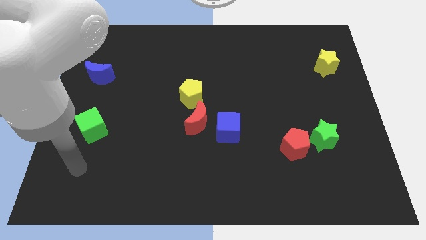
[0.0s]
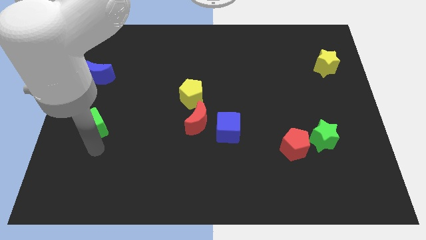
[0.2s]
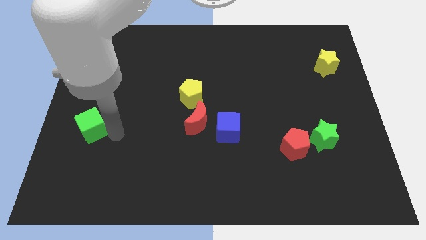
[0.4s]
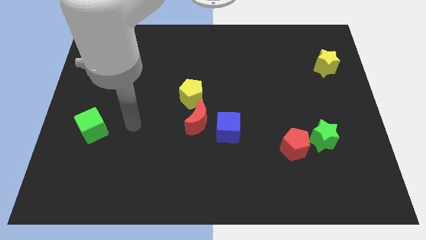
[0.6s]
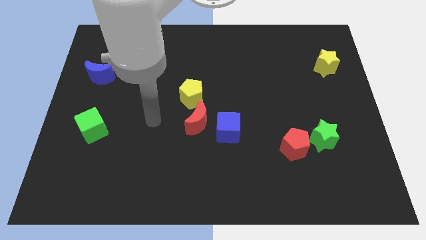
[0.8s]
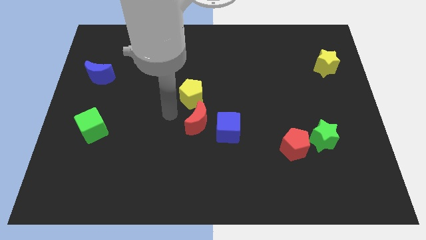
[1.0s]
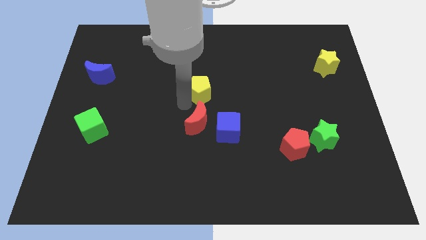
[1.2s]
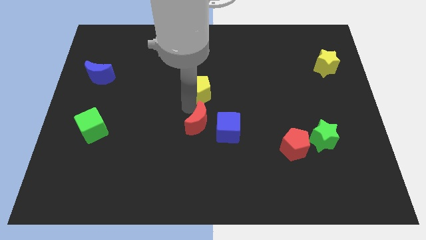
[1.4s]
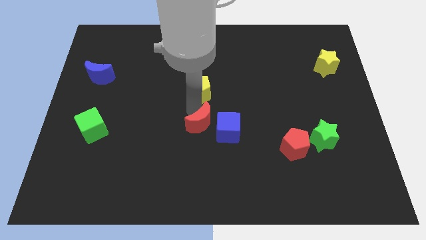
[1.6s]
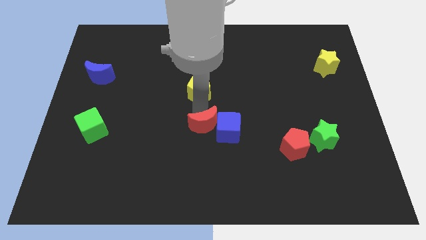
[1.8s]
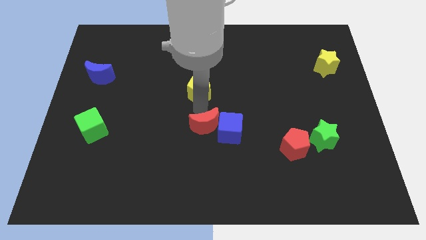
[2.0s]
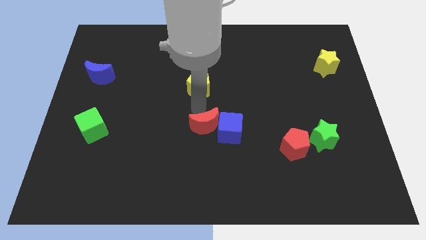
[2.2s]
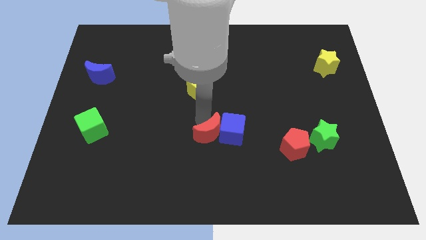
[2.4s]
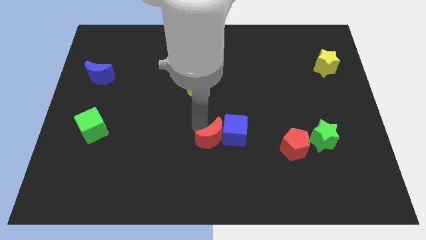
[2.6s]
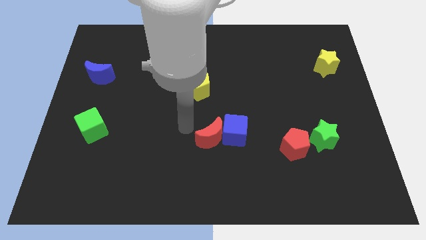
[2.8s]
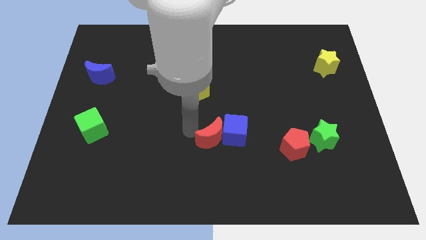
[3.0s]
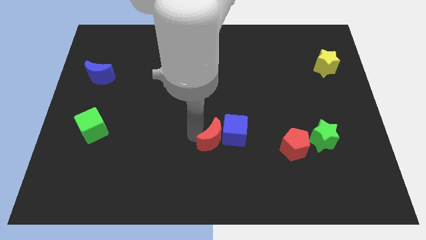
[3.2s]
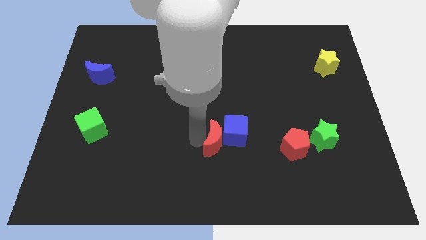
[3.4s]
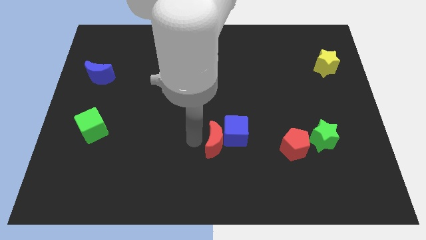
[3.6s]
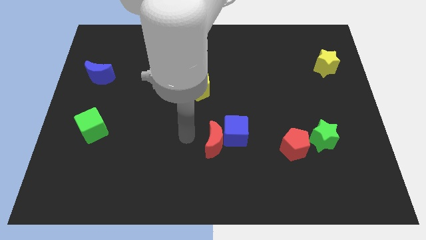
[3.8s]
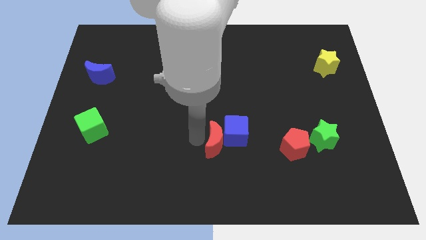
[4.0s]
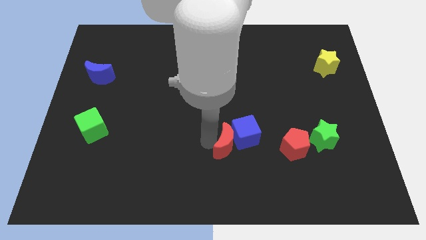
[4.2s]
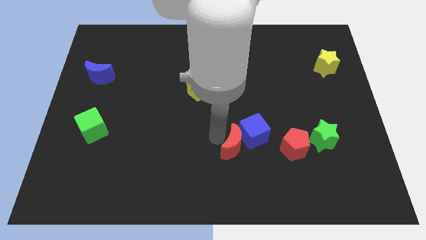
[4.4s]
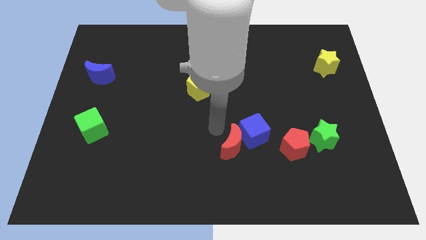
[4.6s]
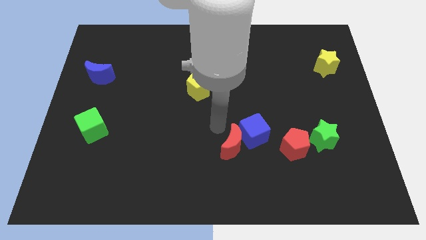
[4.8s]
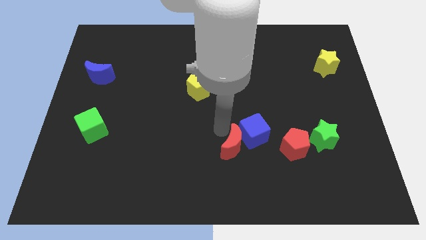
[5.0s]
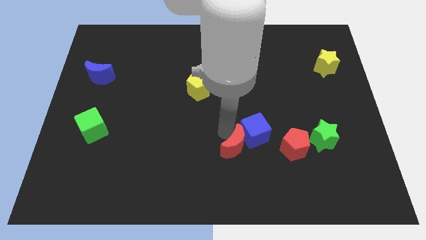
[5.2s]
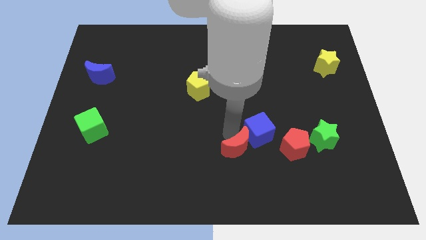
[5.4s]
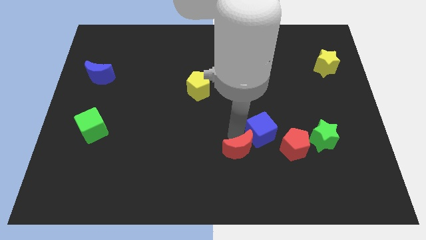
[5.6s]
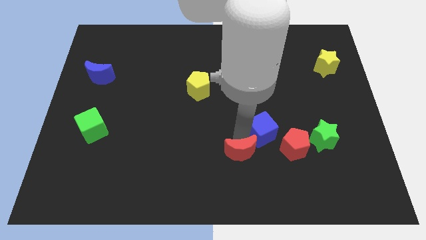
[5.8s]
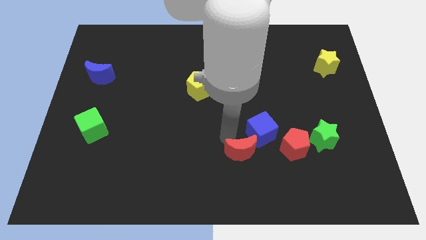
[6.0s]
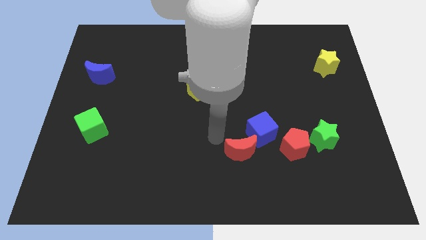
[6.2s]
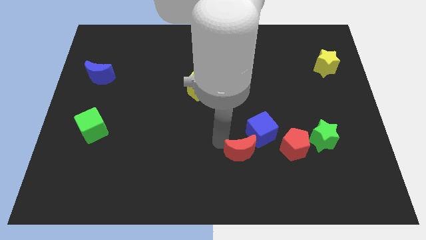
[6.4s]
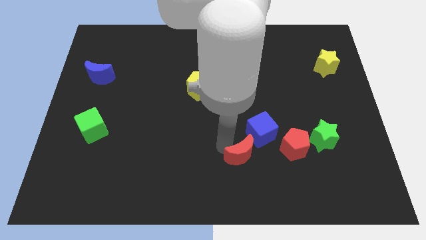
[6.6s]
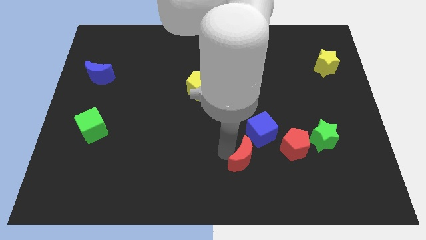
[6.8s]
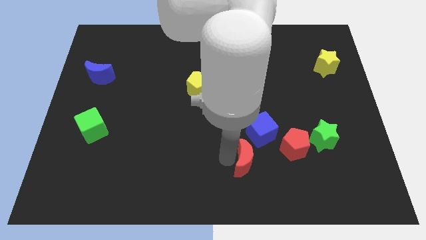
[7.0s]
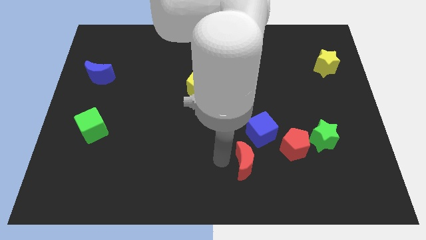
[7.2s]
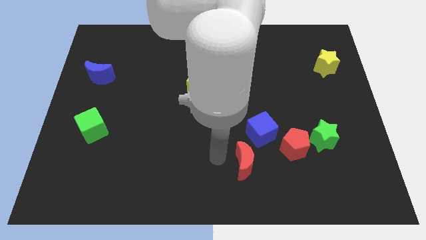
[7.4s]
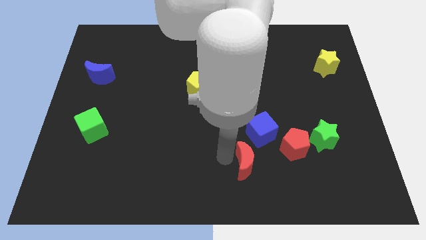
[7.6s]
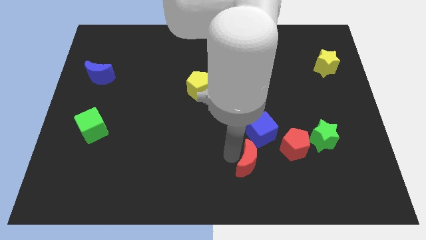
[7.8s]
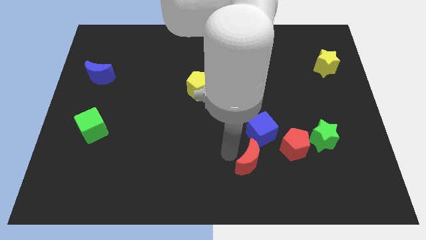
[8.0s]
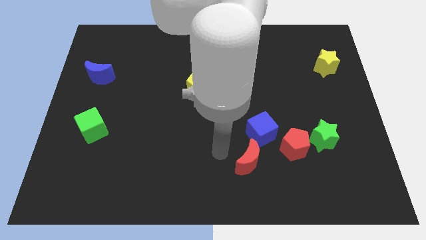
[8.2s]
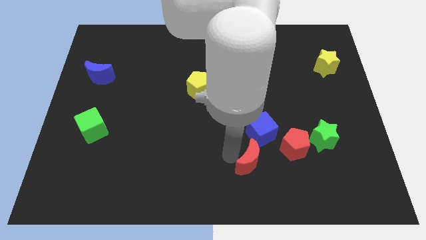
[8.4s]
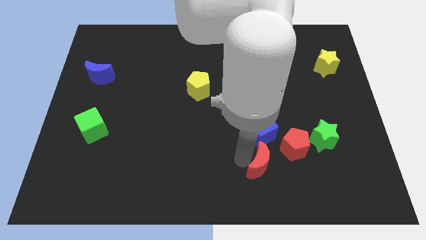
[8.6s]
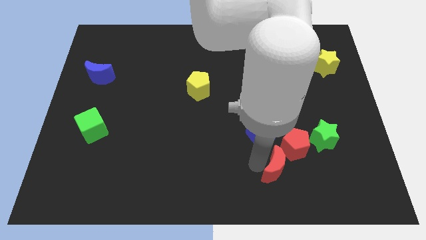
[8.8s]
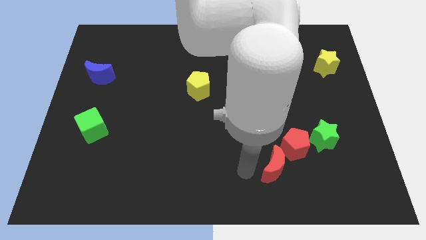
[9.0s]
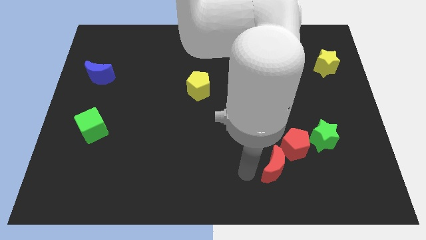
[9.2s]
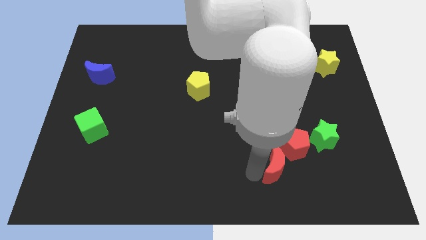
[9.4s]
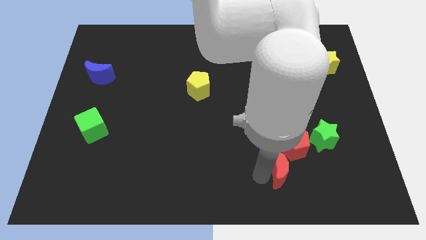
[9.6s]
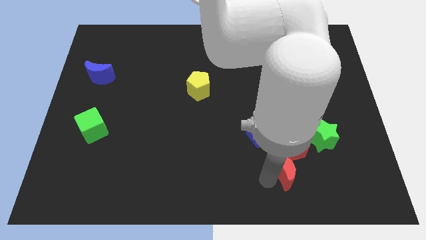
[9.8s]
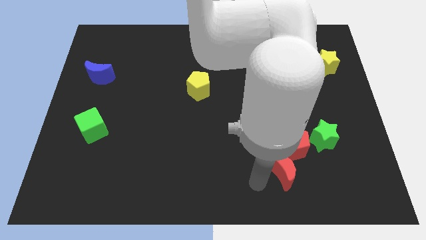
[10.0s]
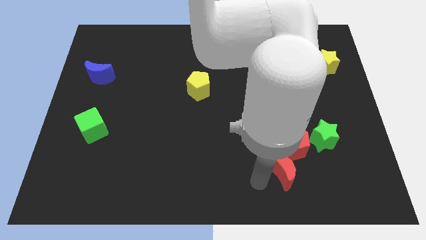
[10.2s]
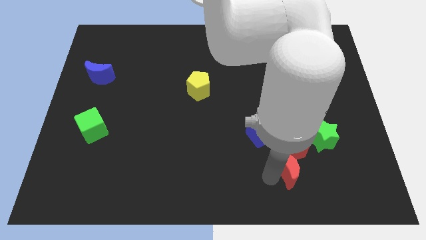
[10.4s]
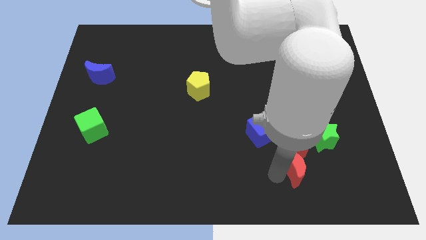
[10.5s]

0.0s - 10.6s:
put the red moon to the bottom right side of the red pentagon
